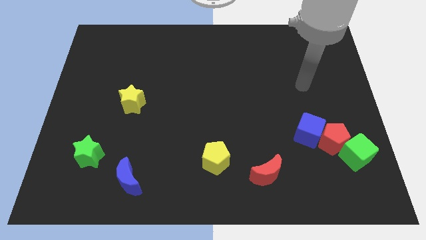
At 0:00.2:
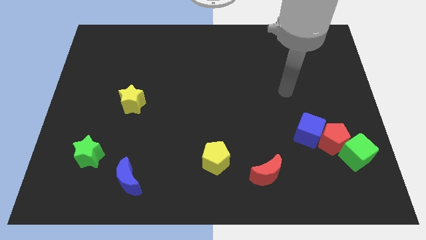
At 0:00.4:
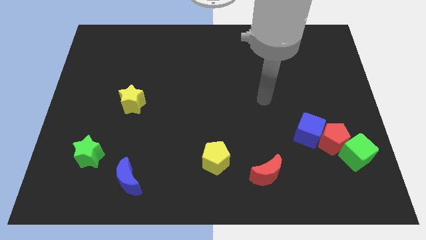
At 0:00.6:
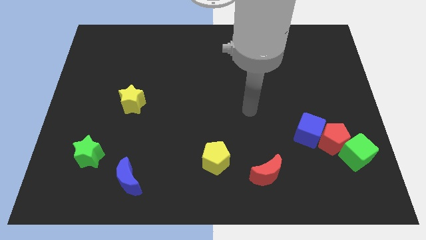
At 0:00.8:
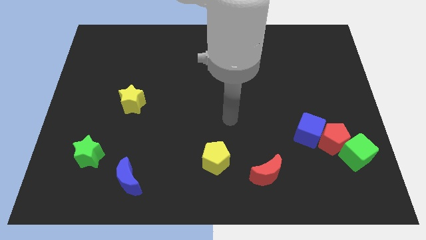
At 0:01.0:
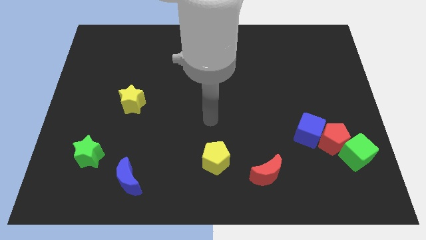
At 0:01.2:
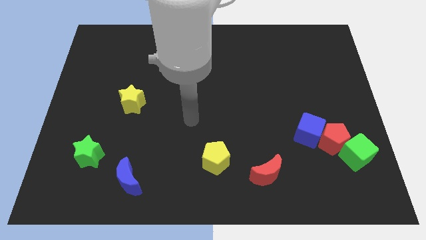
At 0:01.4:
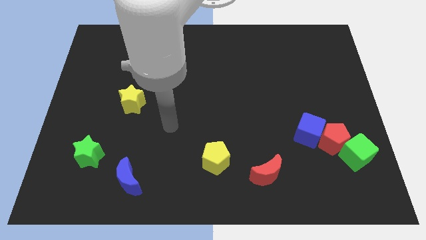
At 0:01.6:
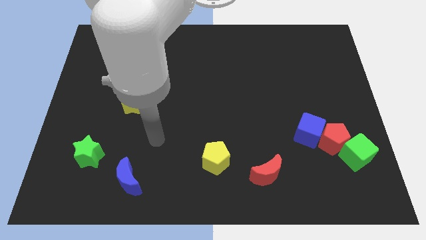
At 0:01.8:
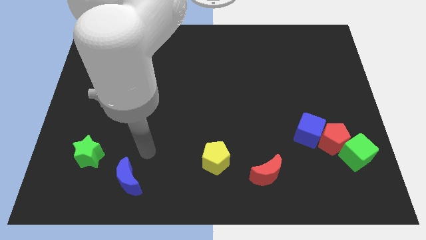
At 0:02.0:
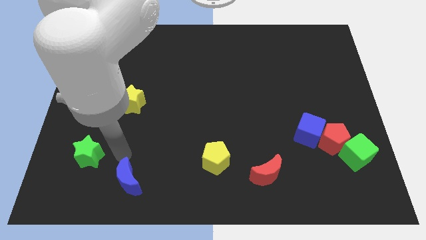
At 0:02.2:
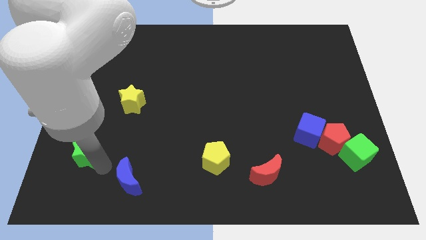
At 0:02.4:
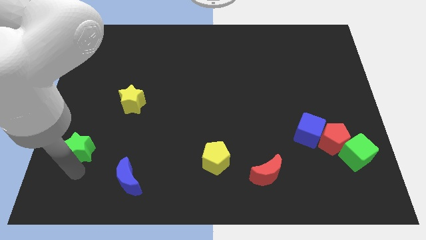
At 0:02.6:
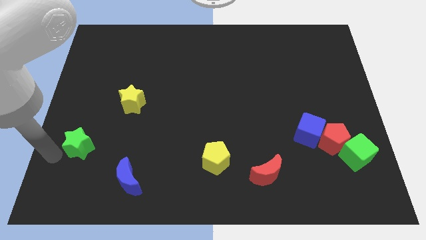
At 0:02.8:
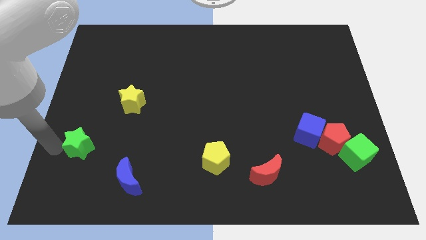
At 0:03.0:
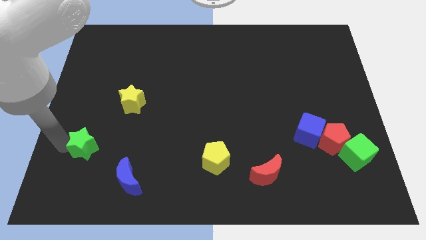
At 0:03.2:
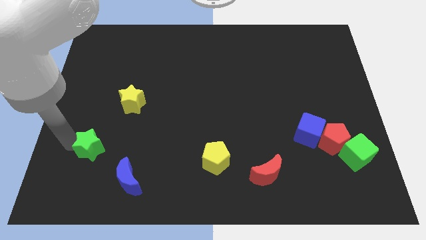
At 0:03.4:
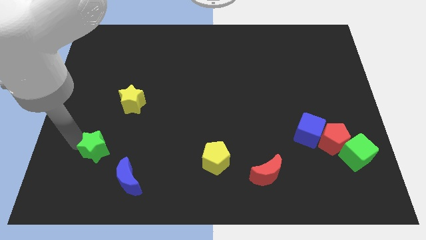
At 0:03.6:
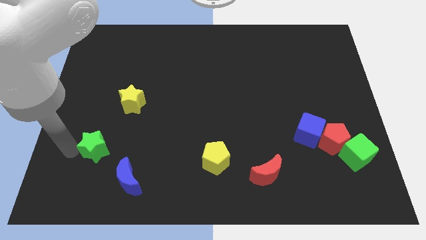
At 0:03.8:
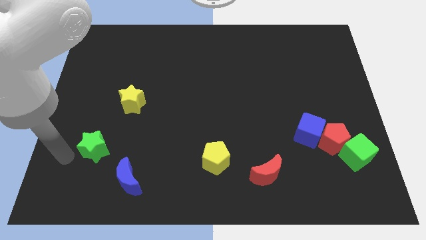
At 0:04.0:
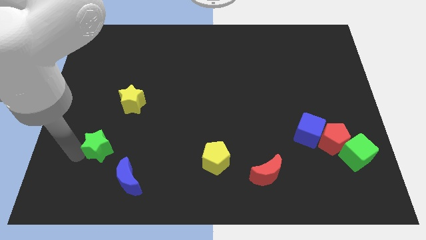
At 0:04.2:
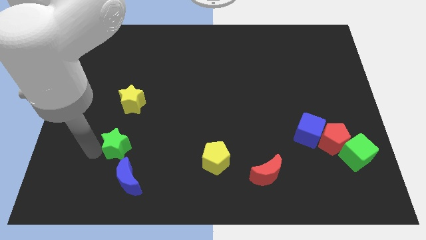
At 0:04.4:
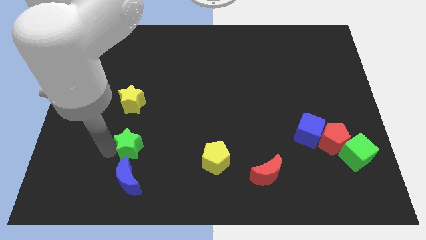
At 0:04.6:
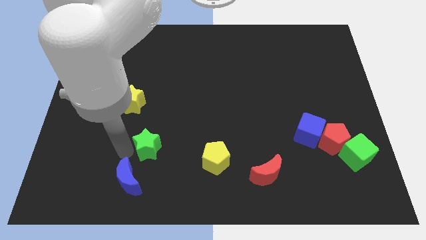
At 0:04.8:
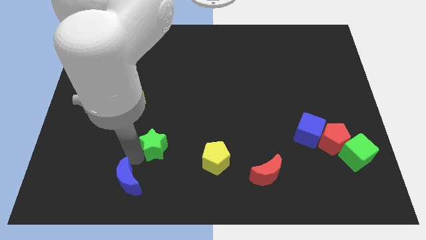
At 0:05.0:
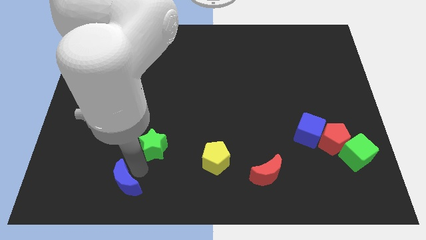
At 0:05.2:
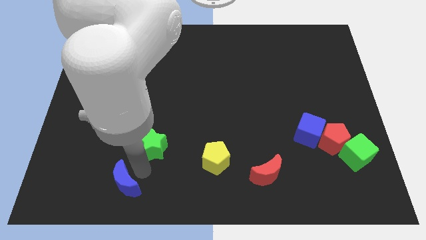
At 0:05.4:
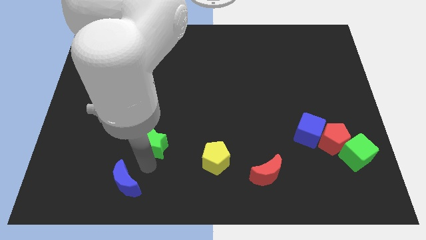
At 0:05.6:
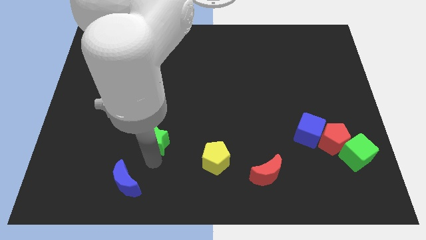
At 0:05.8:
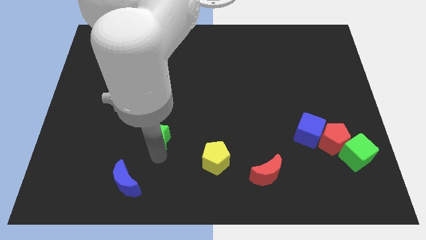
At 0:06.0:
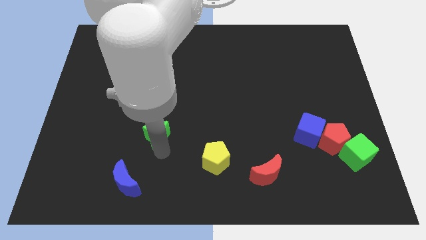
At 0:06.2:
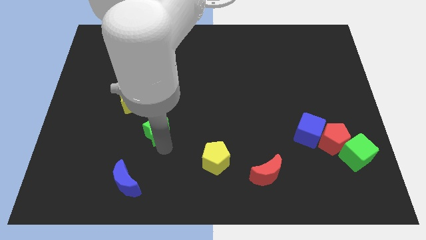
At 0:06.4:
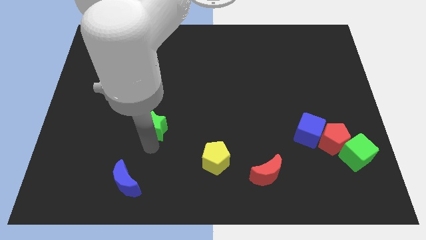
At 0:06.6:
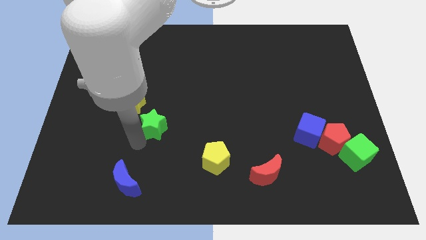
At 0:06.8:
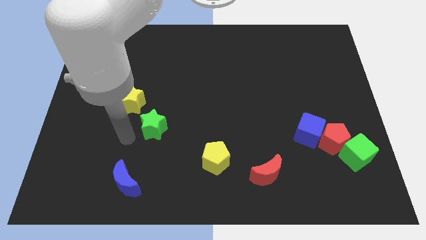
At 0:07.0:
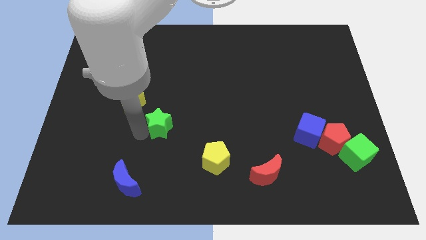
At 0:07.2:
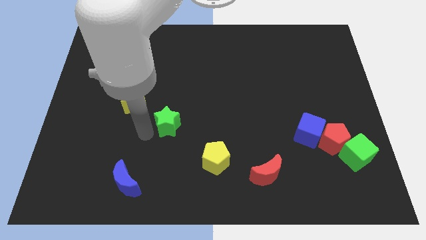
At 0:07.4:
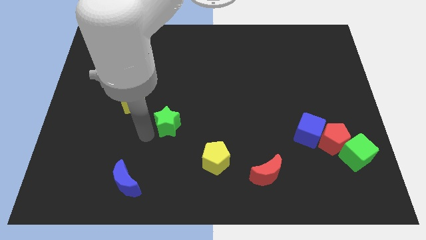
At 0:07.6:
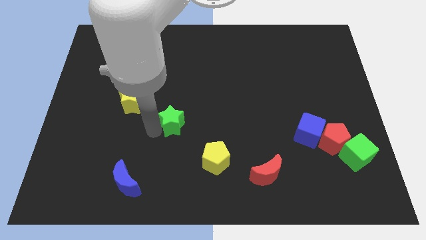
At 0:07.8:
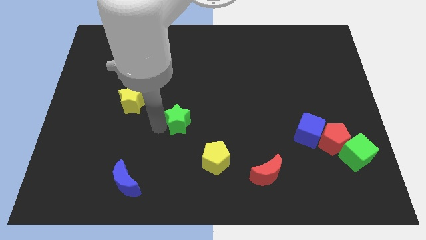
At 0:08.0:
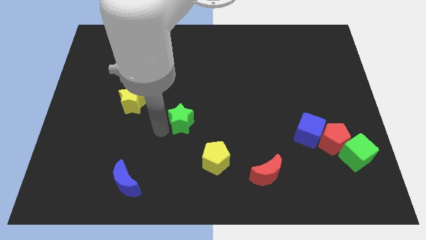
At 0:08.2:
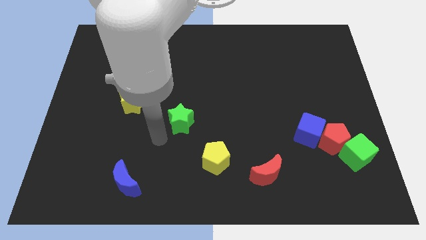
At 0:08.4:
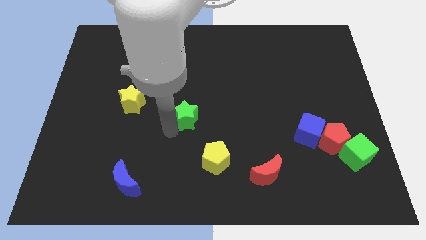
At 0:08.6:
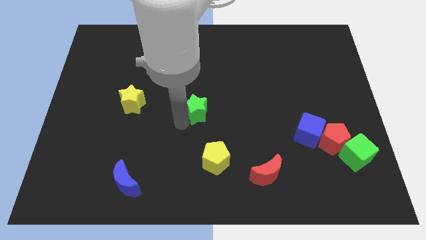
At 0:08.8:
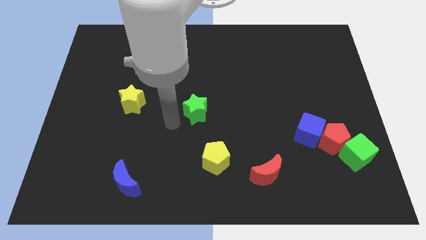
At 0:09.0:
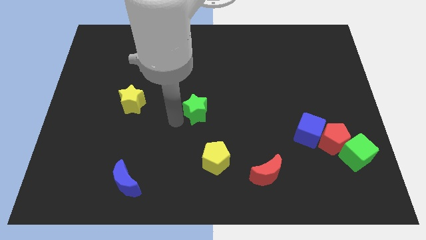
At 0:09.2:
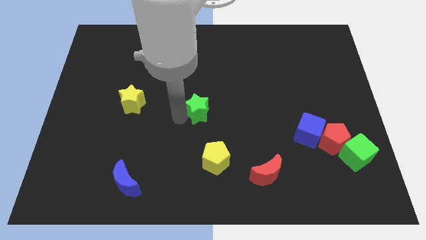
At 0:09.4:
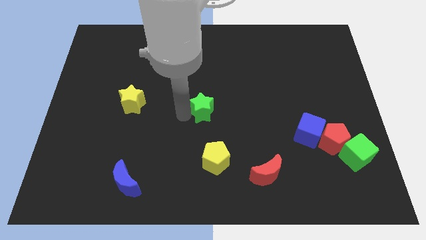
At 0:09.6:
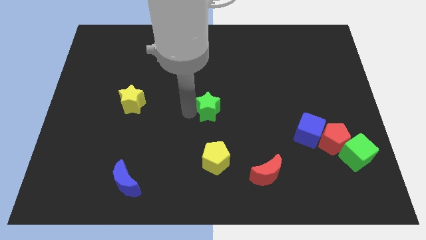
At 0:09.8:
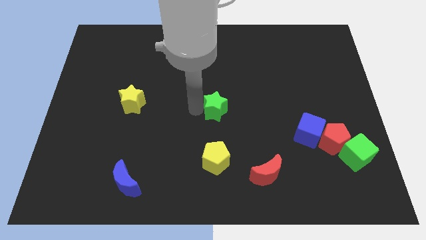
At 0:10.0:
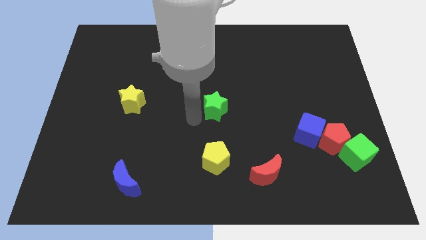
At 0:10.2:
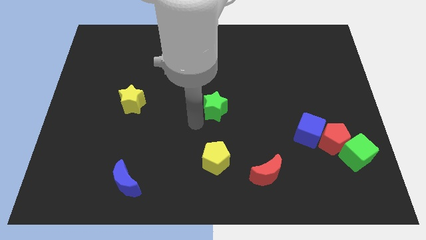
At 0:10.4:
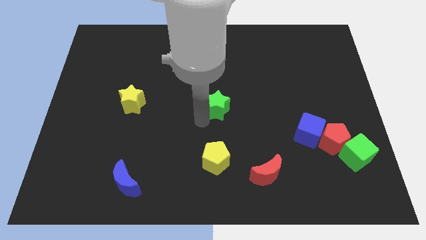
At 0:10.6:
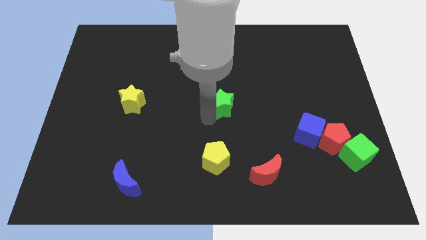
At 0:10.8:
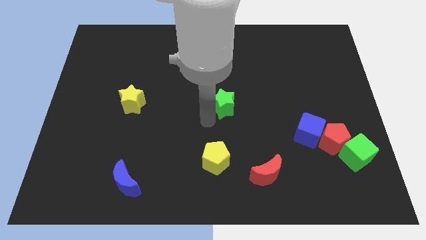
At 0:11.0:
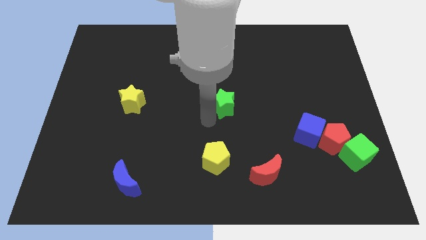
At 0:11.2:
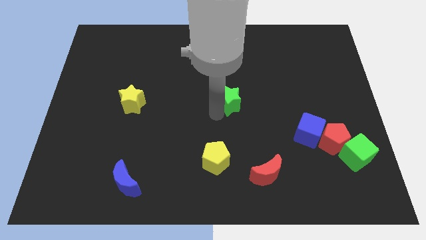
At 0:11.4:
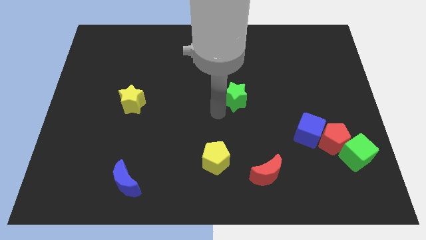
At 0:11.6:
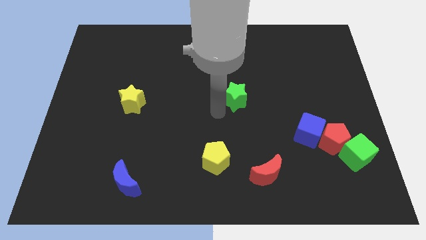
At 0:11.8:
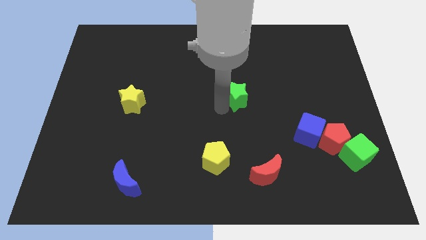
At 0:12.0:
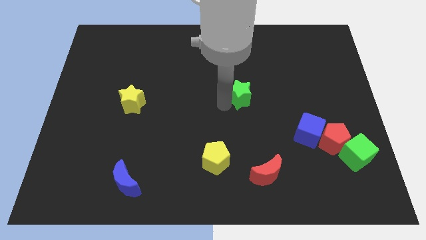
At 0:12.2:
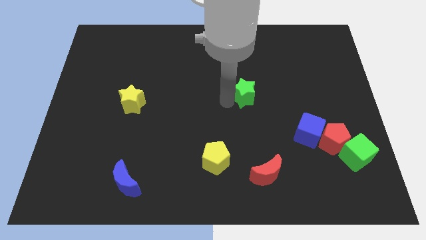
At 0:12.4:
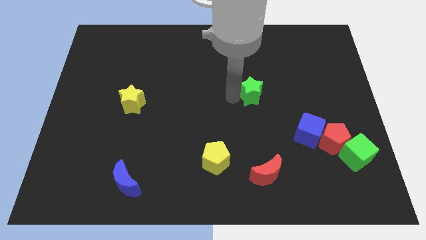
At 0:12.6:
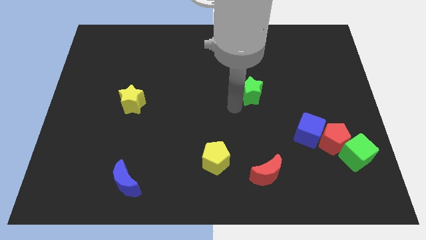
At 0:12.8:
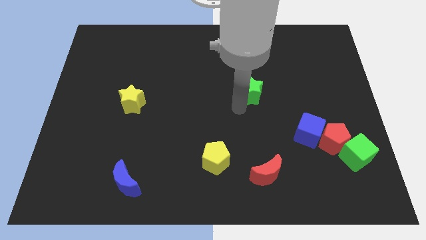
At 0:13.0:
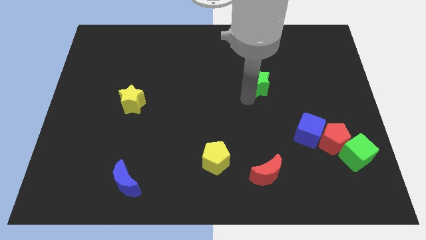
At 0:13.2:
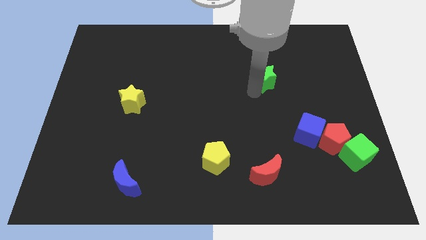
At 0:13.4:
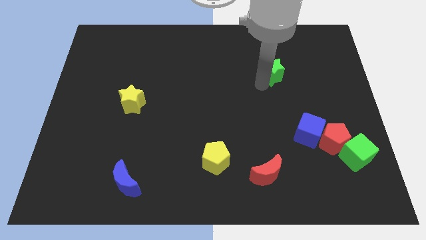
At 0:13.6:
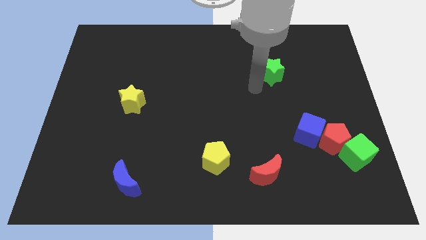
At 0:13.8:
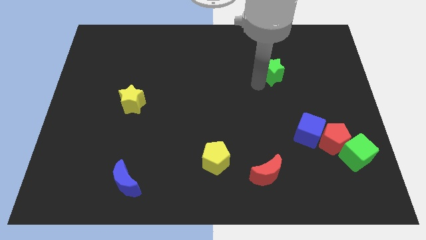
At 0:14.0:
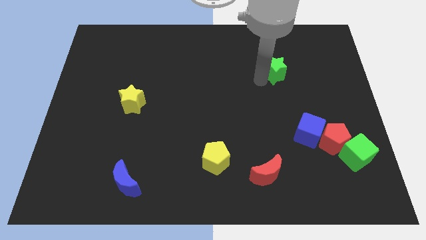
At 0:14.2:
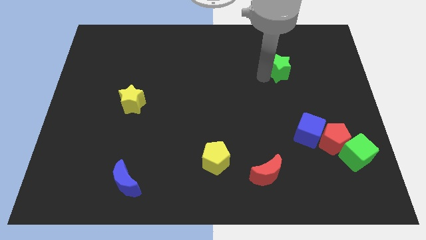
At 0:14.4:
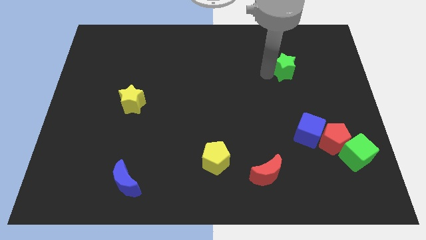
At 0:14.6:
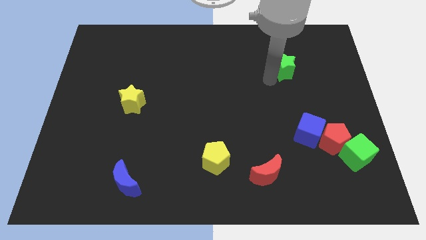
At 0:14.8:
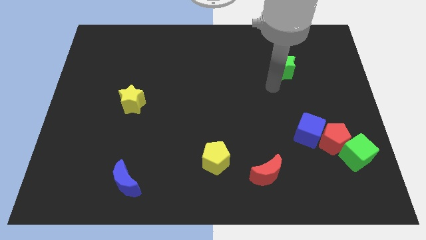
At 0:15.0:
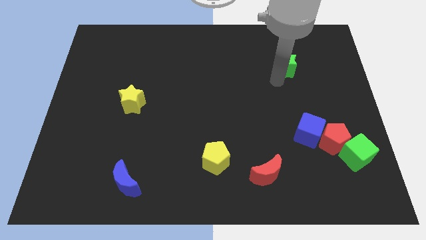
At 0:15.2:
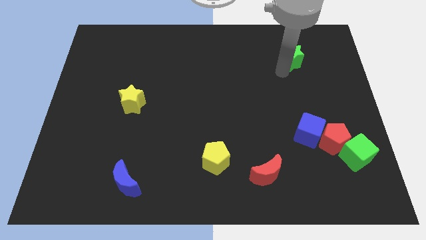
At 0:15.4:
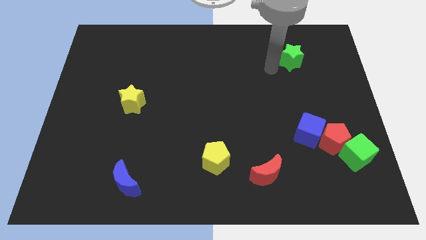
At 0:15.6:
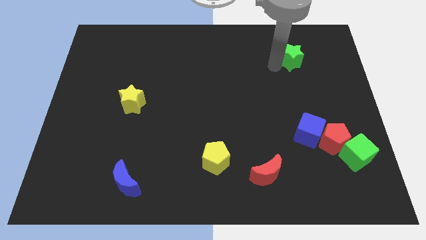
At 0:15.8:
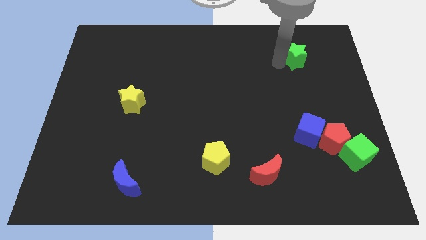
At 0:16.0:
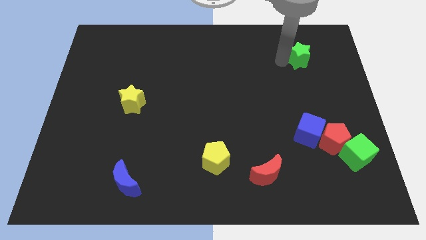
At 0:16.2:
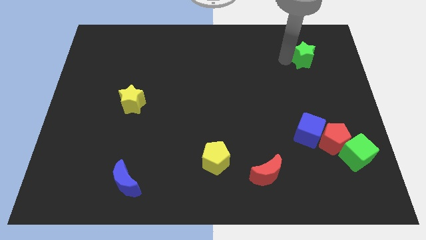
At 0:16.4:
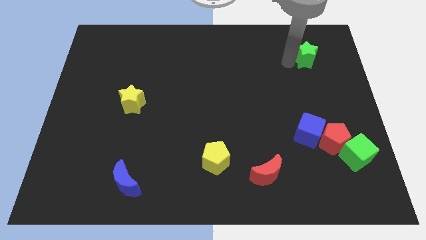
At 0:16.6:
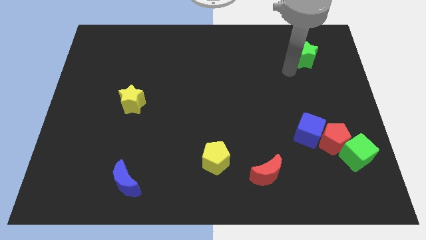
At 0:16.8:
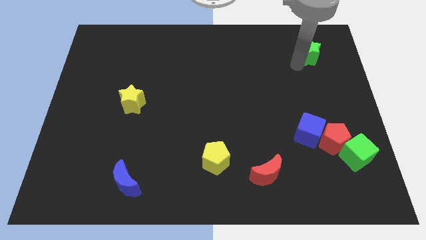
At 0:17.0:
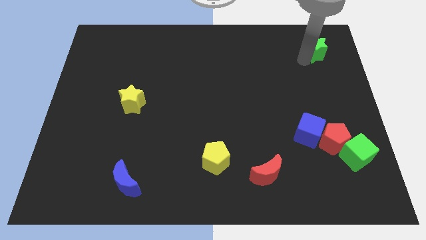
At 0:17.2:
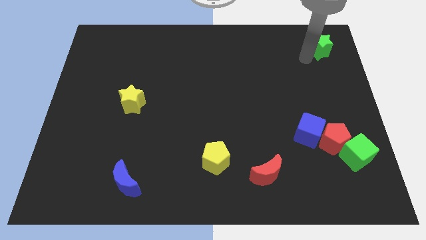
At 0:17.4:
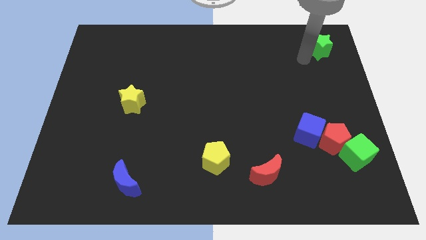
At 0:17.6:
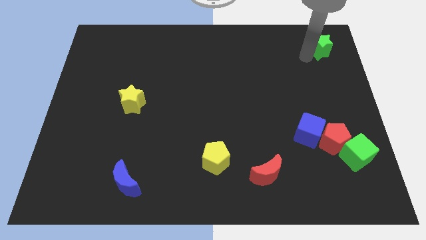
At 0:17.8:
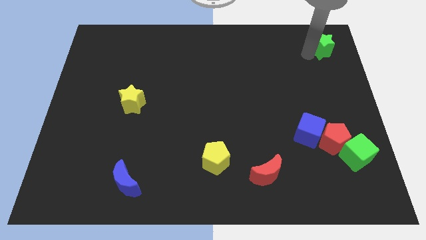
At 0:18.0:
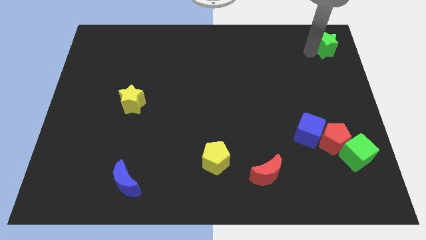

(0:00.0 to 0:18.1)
move the green star to the top right corner
